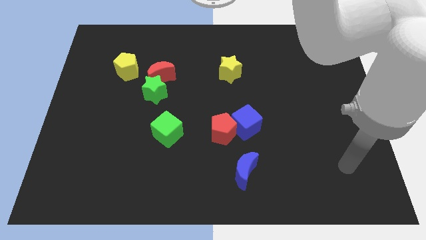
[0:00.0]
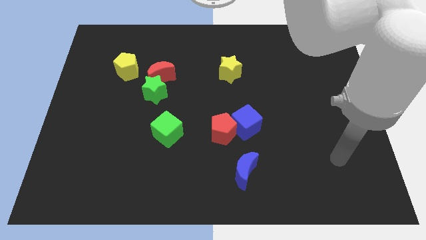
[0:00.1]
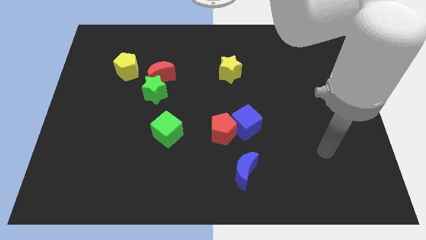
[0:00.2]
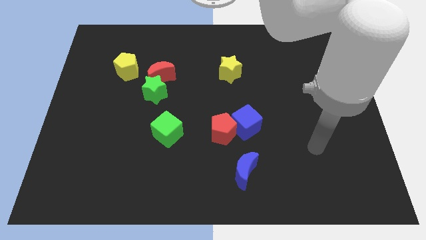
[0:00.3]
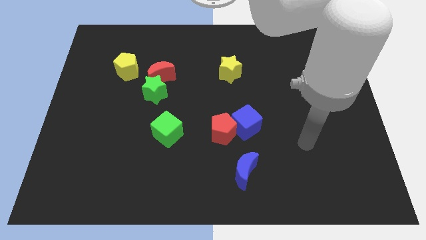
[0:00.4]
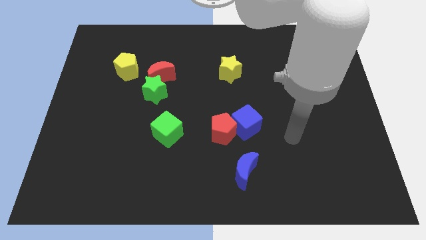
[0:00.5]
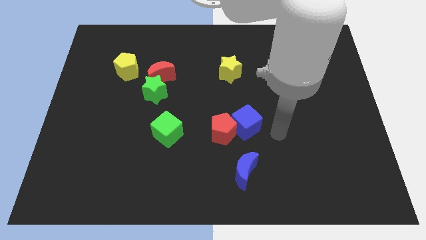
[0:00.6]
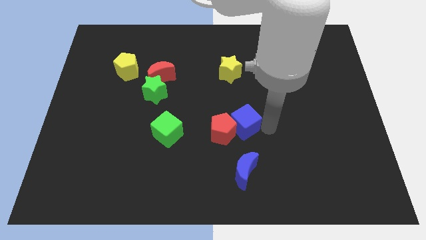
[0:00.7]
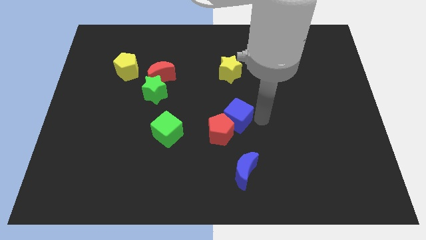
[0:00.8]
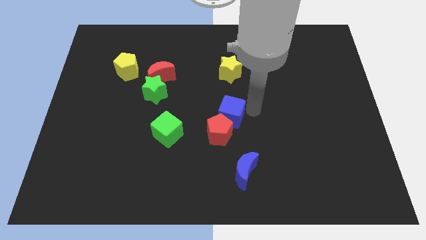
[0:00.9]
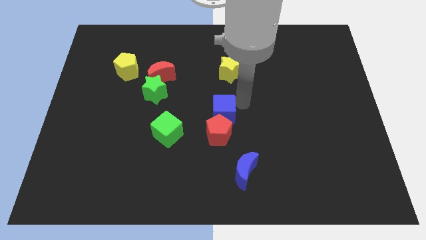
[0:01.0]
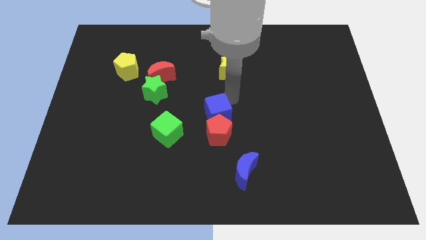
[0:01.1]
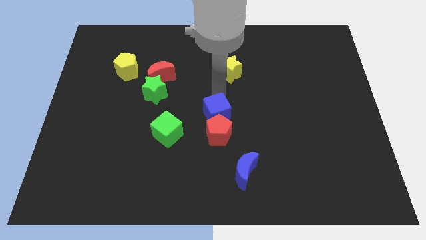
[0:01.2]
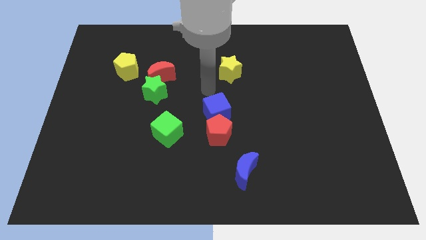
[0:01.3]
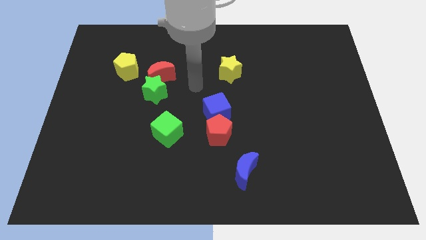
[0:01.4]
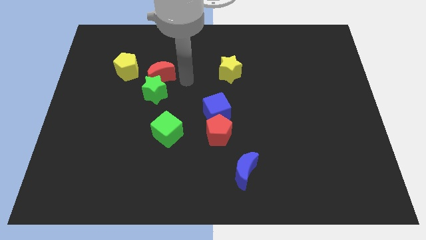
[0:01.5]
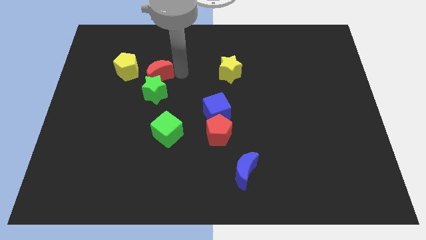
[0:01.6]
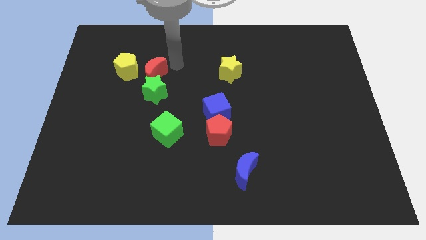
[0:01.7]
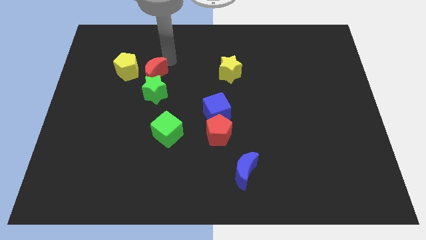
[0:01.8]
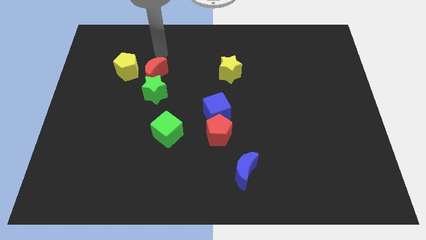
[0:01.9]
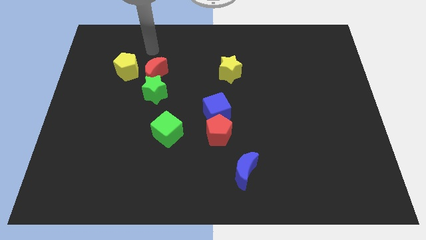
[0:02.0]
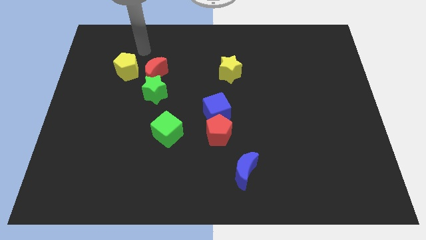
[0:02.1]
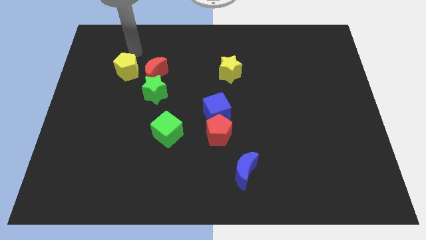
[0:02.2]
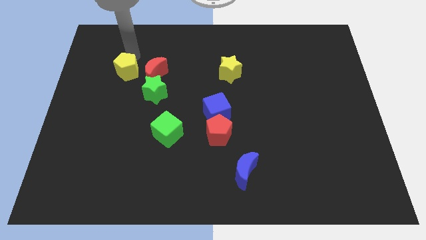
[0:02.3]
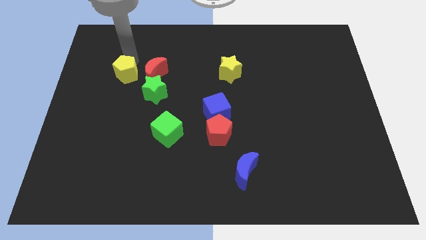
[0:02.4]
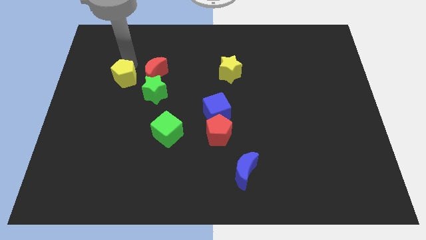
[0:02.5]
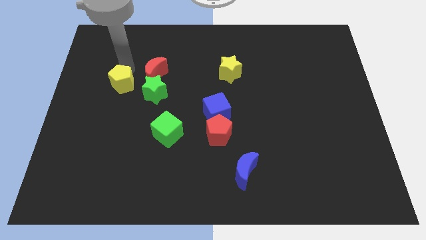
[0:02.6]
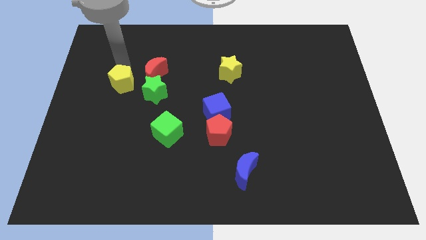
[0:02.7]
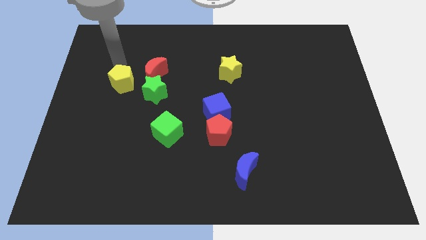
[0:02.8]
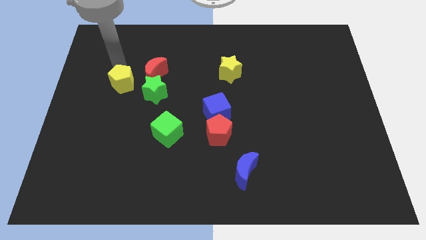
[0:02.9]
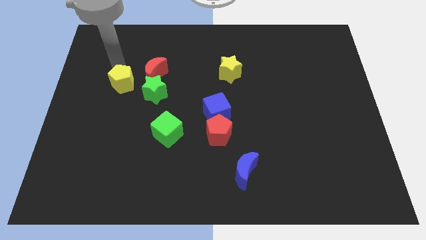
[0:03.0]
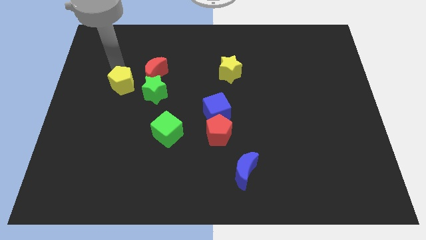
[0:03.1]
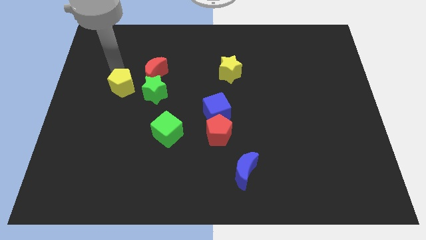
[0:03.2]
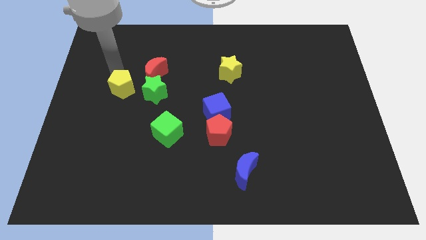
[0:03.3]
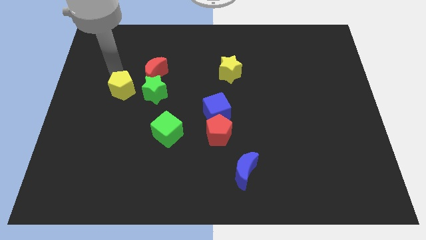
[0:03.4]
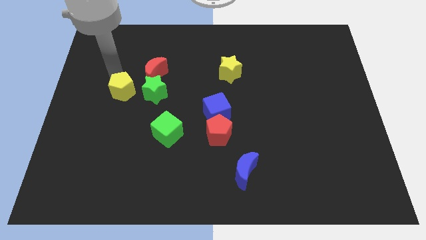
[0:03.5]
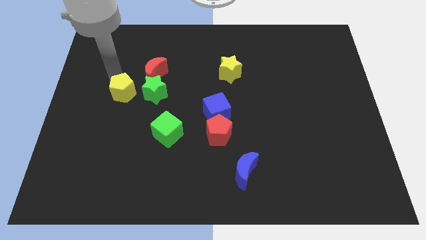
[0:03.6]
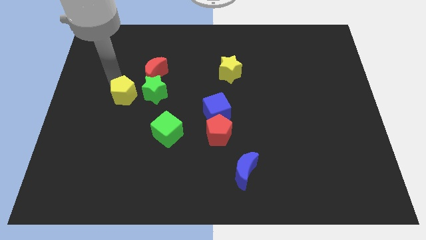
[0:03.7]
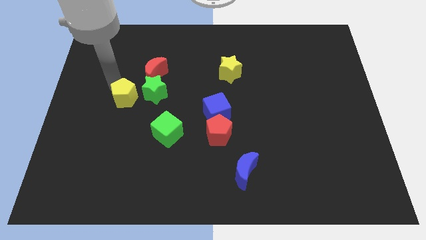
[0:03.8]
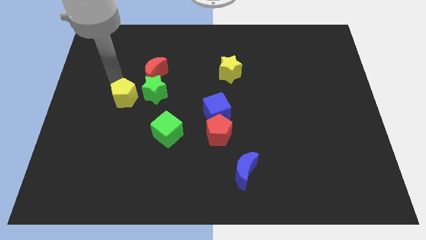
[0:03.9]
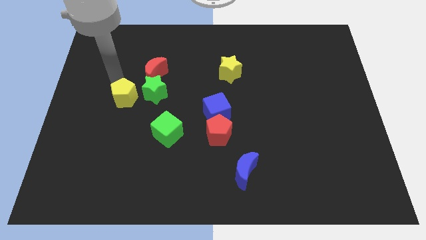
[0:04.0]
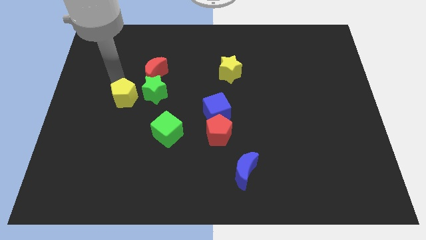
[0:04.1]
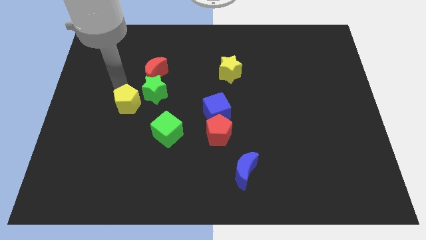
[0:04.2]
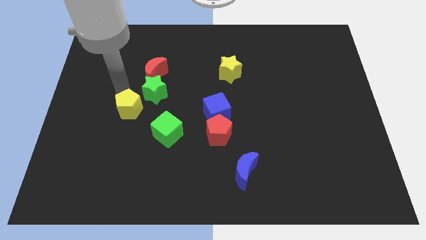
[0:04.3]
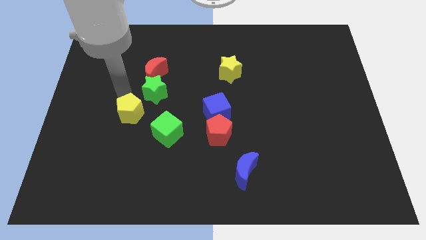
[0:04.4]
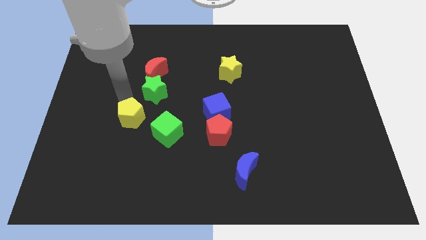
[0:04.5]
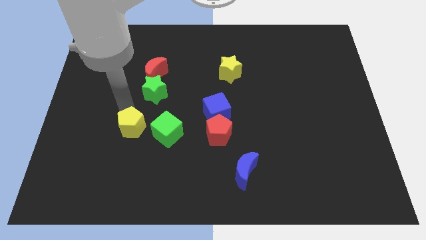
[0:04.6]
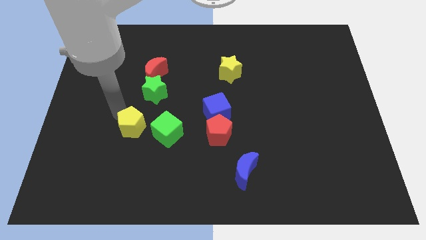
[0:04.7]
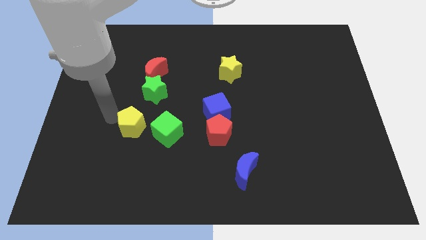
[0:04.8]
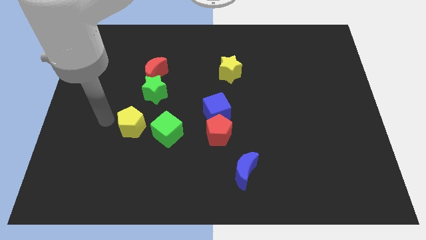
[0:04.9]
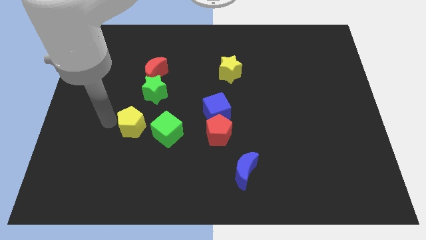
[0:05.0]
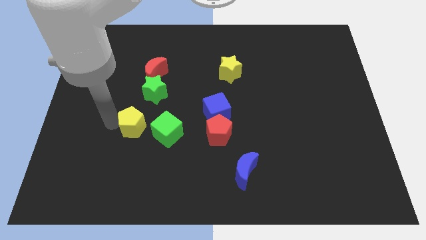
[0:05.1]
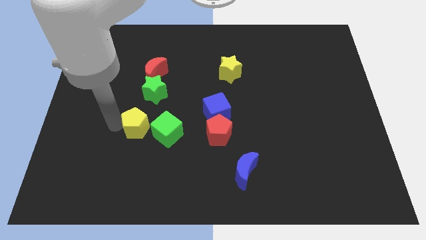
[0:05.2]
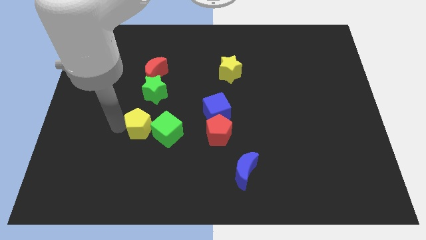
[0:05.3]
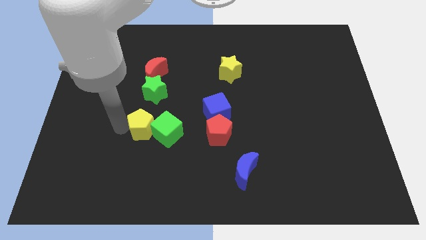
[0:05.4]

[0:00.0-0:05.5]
push the yellow pentagon next to the green cube

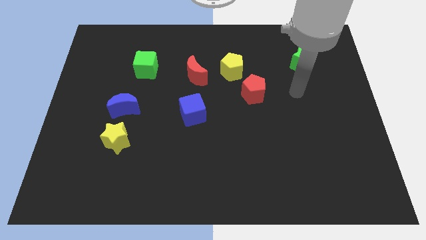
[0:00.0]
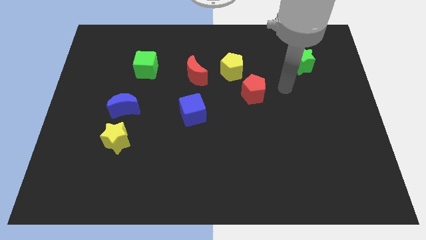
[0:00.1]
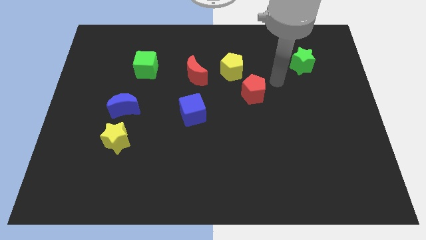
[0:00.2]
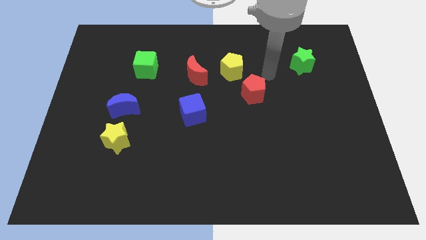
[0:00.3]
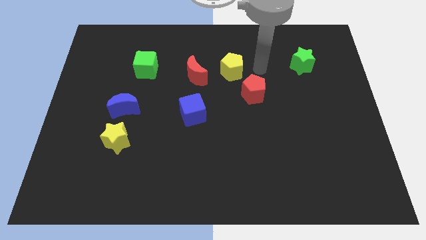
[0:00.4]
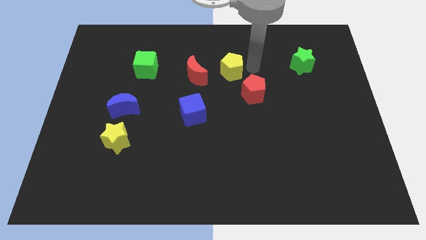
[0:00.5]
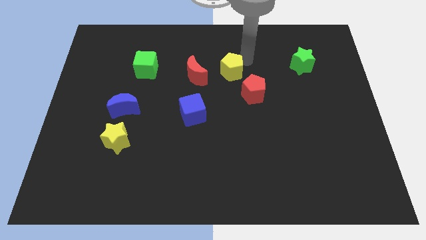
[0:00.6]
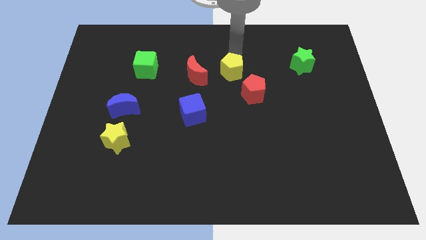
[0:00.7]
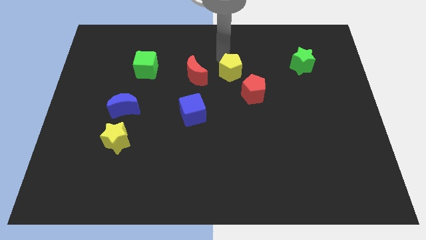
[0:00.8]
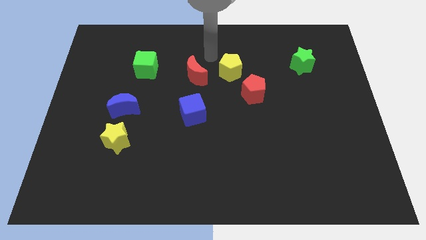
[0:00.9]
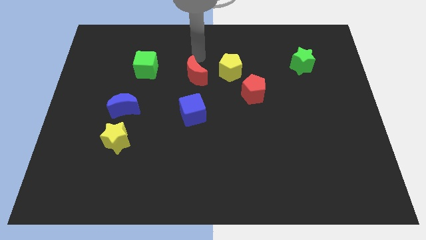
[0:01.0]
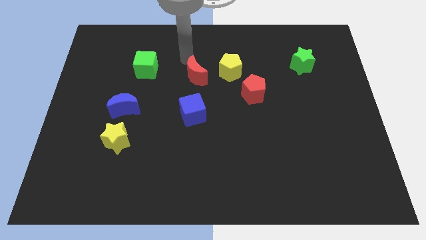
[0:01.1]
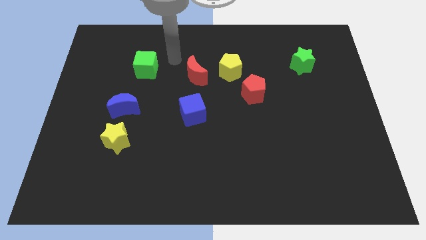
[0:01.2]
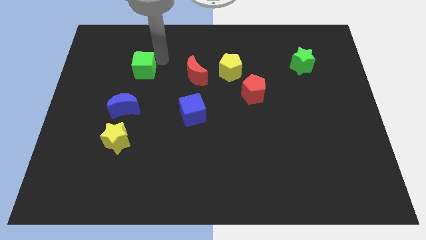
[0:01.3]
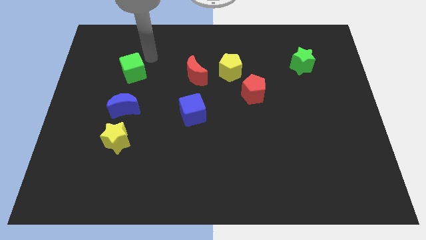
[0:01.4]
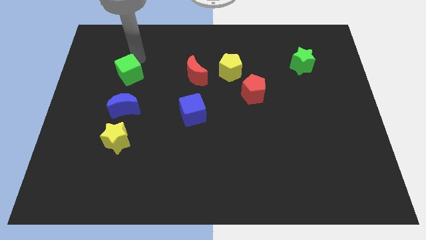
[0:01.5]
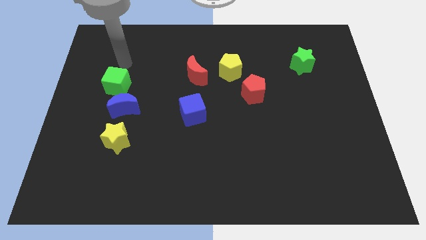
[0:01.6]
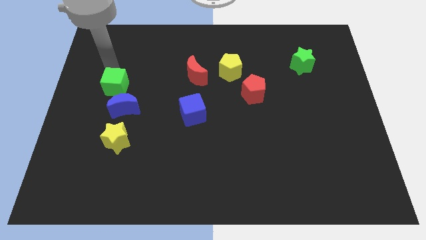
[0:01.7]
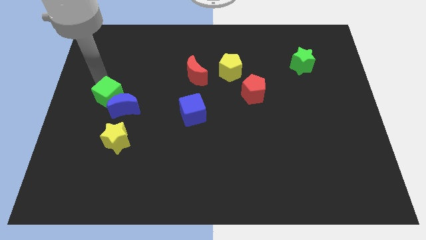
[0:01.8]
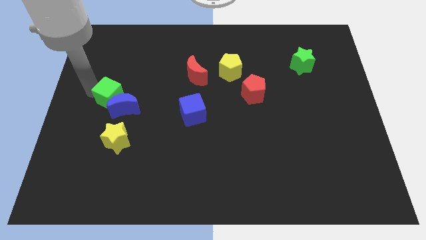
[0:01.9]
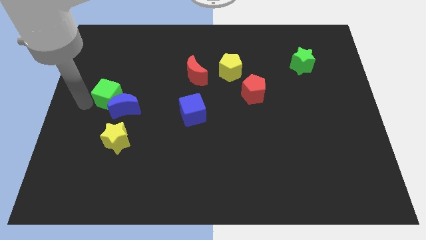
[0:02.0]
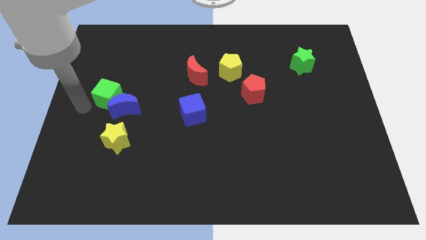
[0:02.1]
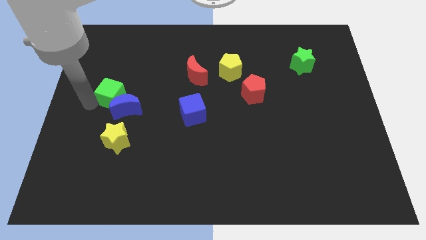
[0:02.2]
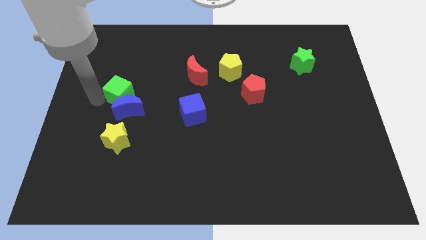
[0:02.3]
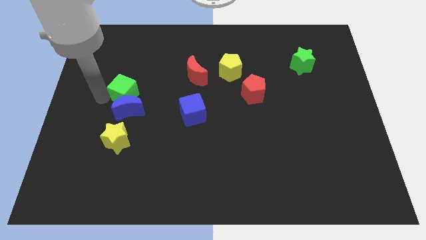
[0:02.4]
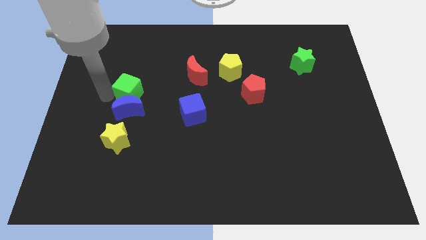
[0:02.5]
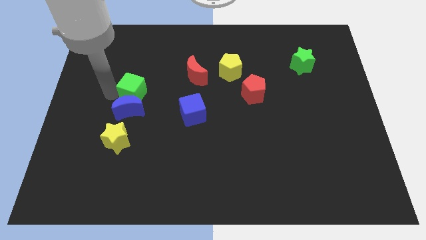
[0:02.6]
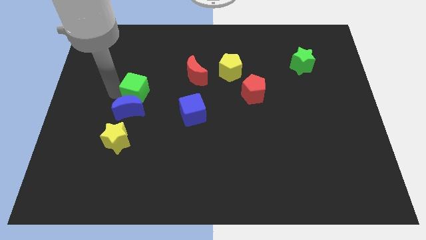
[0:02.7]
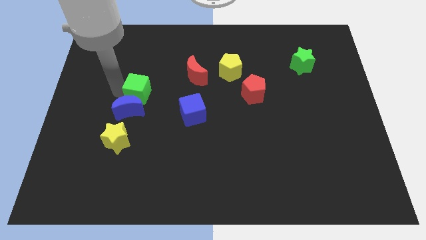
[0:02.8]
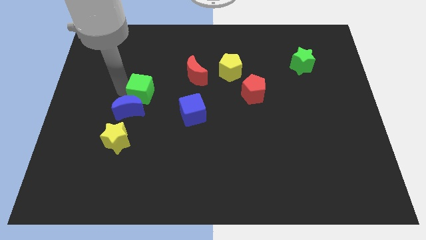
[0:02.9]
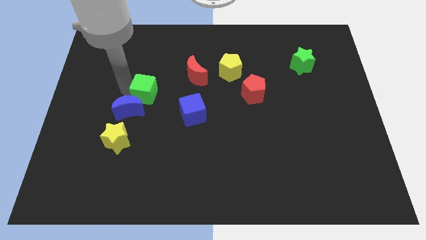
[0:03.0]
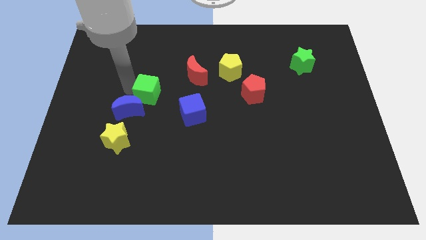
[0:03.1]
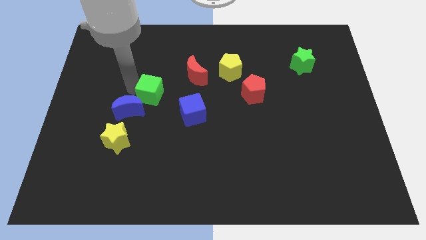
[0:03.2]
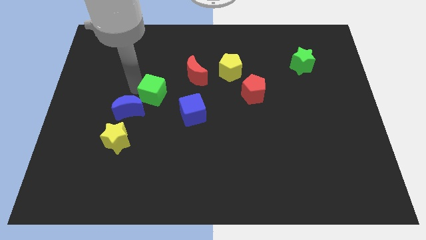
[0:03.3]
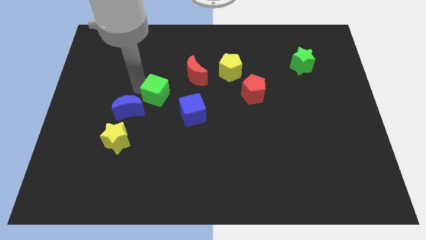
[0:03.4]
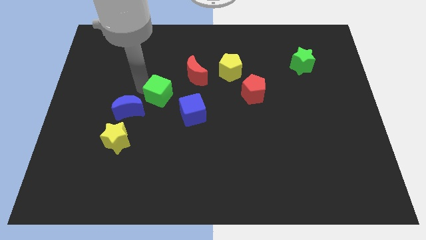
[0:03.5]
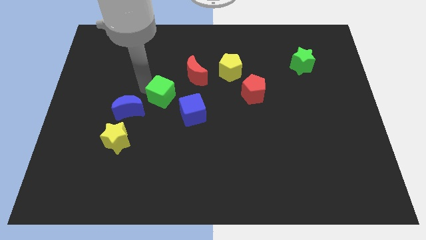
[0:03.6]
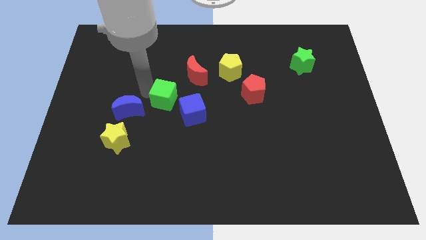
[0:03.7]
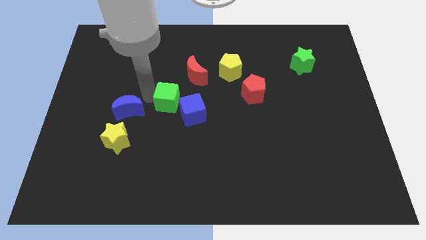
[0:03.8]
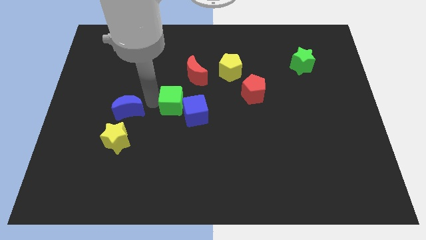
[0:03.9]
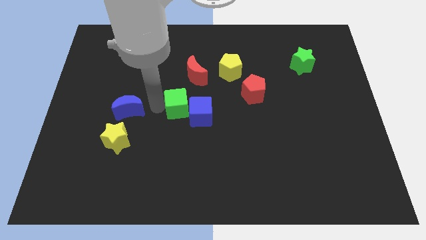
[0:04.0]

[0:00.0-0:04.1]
slide the green cube close to the blue cube
